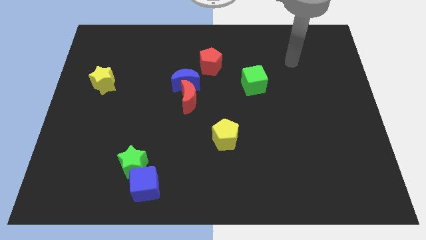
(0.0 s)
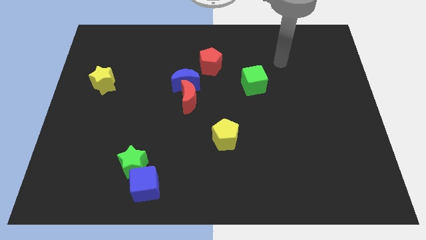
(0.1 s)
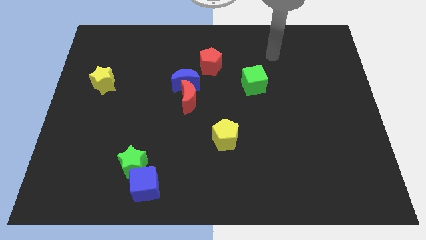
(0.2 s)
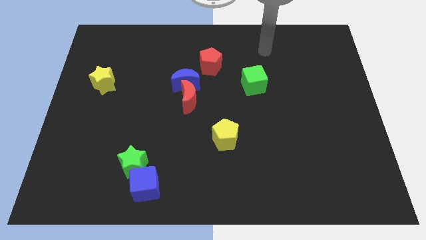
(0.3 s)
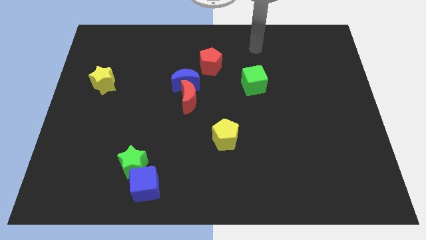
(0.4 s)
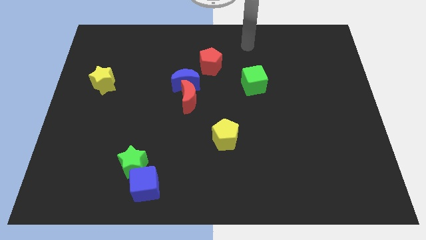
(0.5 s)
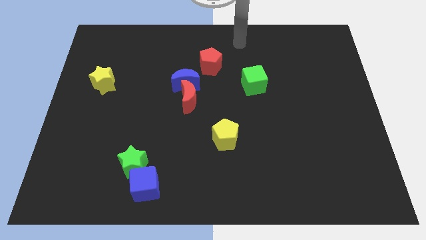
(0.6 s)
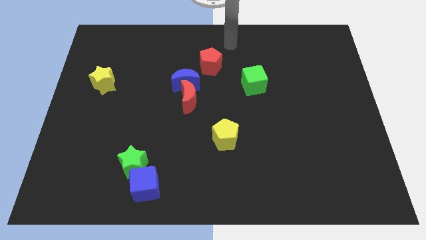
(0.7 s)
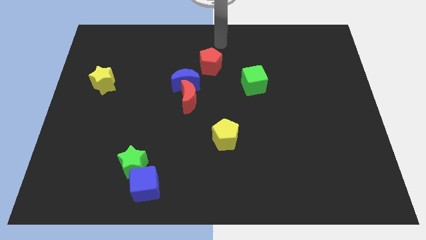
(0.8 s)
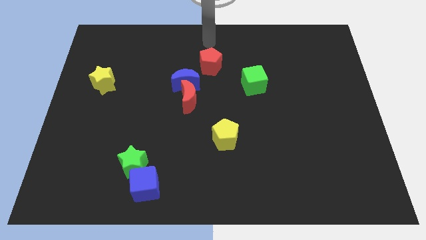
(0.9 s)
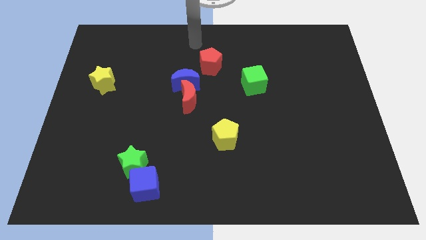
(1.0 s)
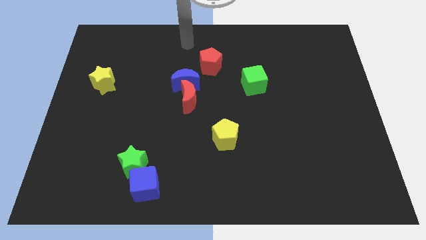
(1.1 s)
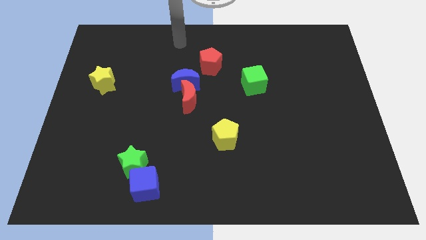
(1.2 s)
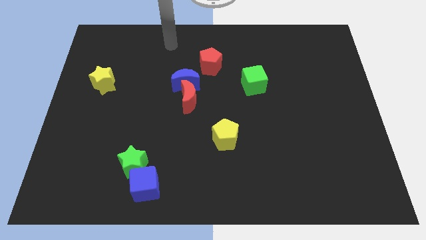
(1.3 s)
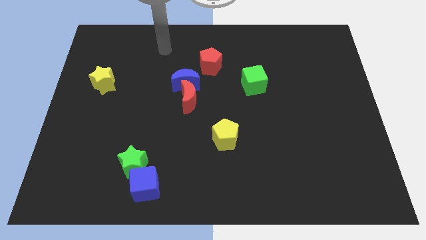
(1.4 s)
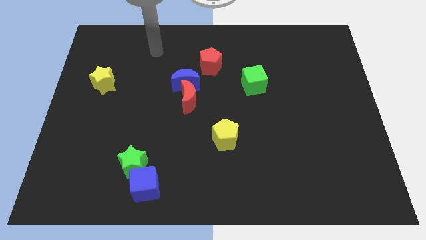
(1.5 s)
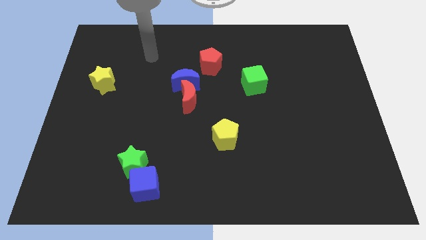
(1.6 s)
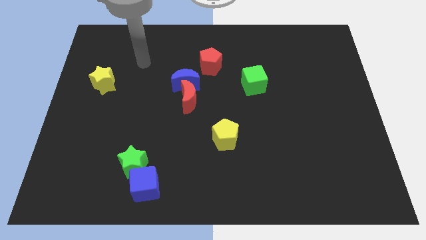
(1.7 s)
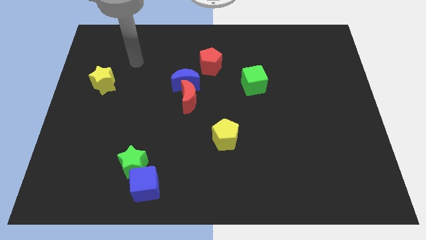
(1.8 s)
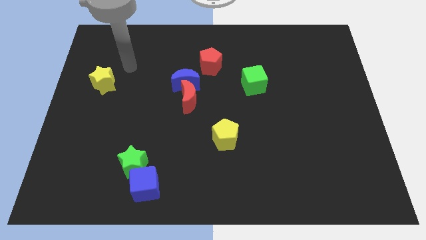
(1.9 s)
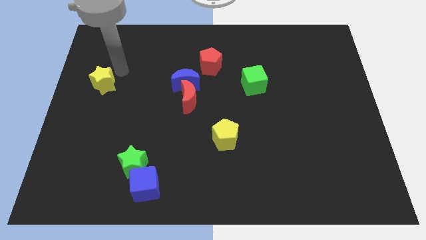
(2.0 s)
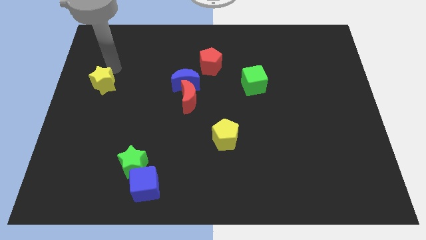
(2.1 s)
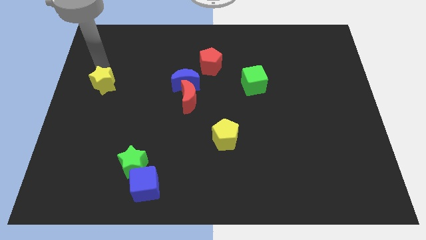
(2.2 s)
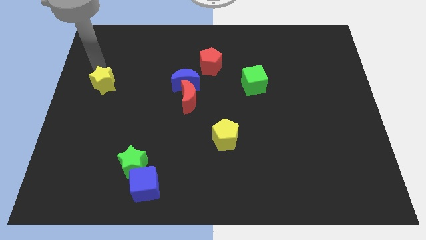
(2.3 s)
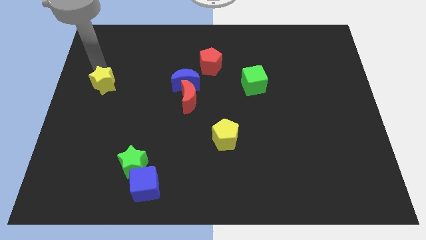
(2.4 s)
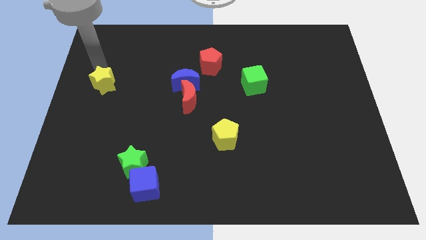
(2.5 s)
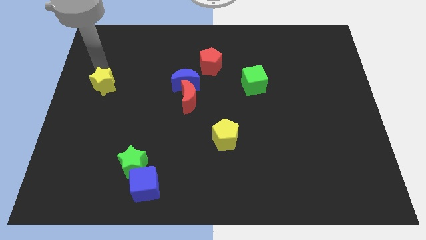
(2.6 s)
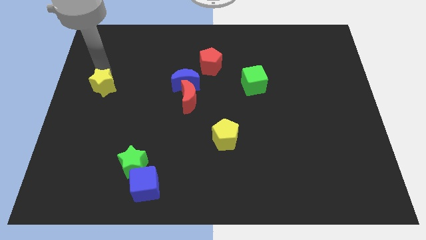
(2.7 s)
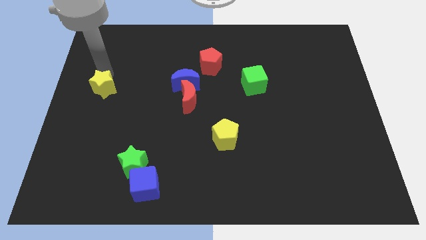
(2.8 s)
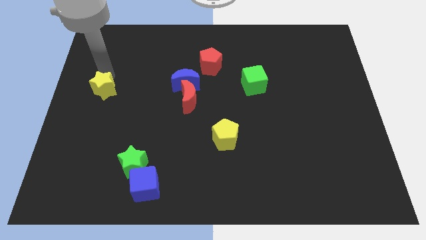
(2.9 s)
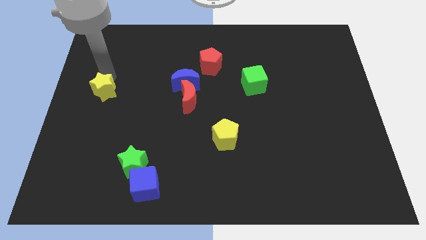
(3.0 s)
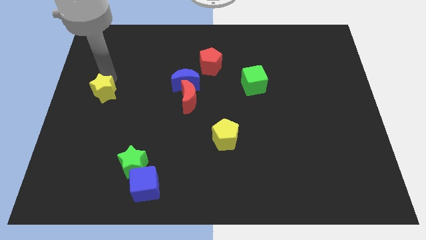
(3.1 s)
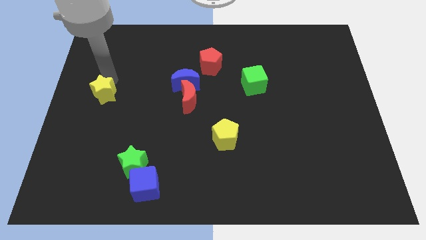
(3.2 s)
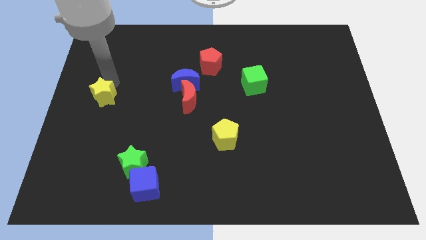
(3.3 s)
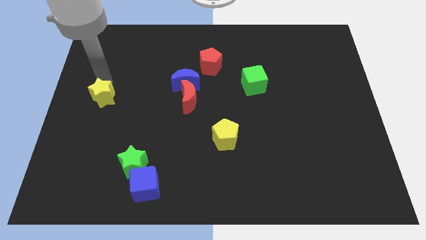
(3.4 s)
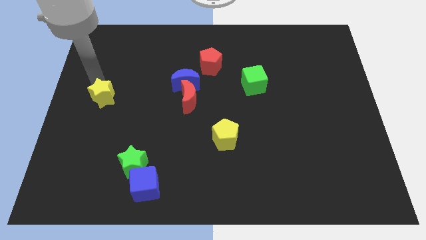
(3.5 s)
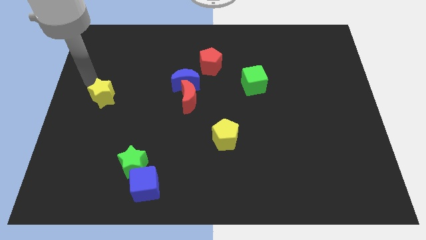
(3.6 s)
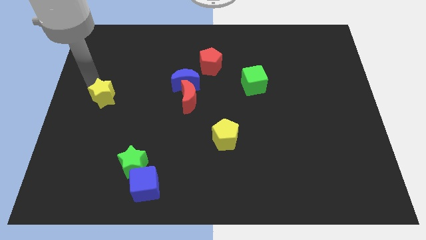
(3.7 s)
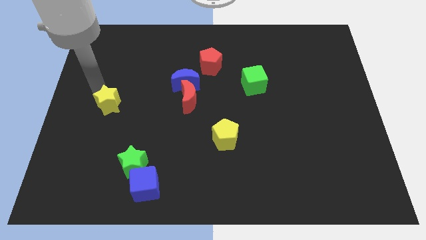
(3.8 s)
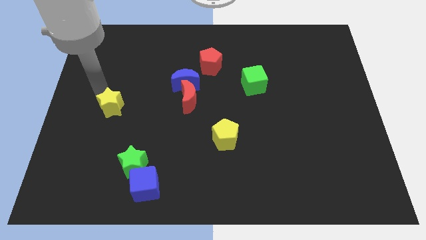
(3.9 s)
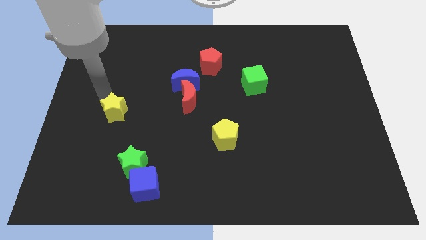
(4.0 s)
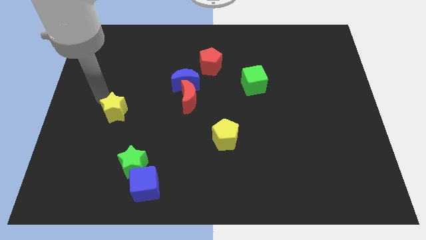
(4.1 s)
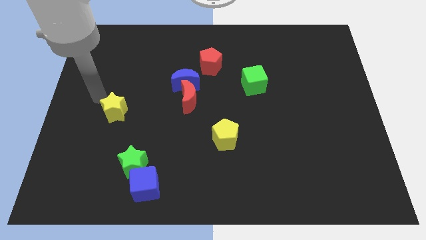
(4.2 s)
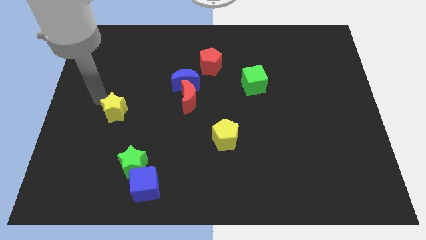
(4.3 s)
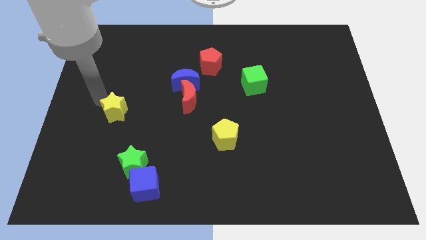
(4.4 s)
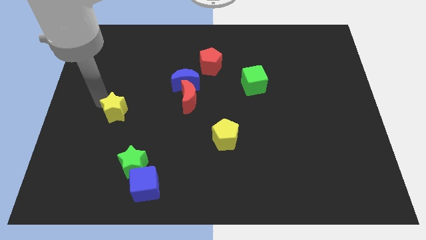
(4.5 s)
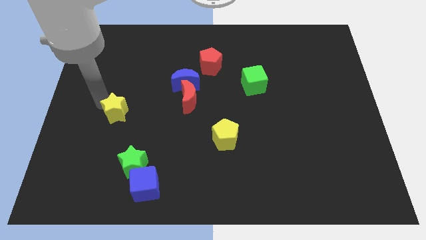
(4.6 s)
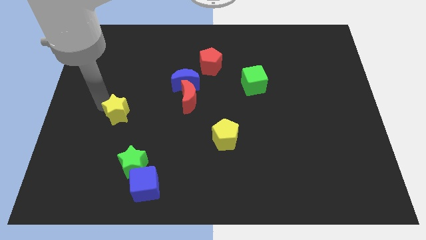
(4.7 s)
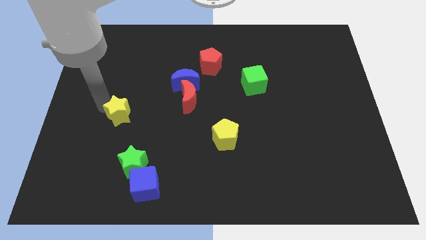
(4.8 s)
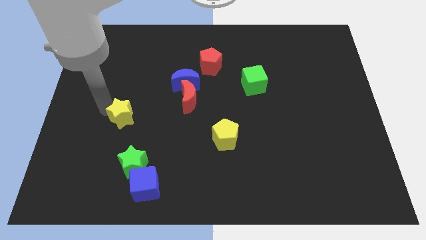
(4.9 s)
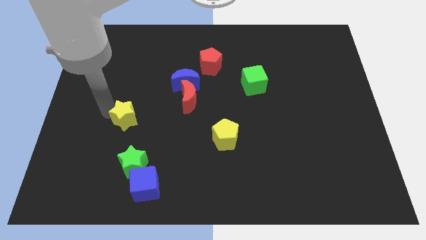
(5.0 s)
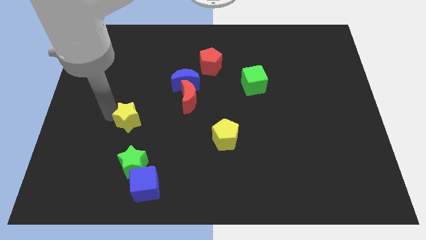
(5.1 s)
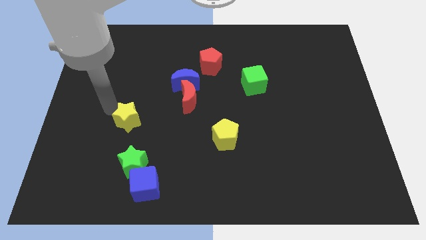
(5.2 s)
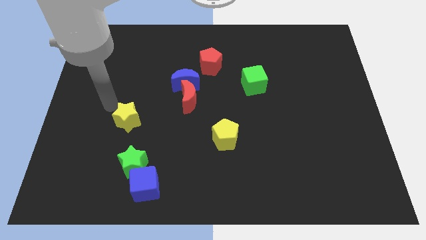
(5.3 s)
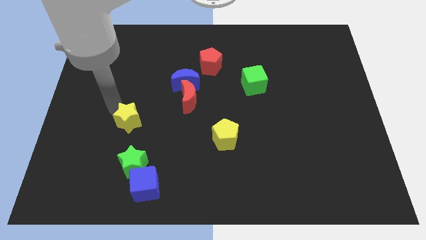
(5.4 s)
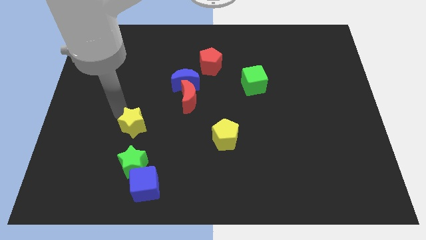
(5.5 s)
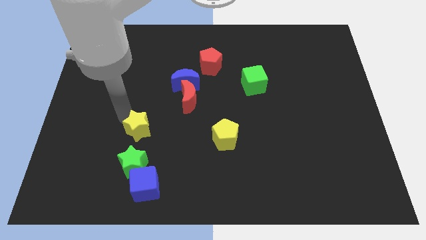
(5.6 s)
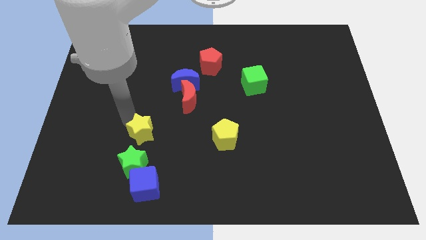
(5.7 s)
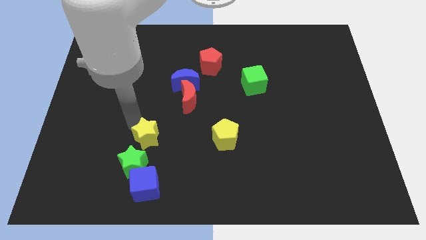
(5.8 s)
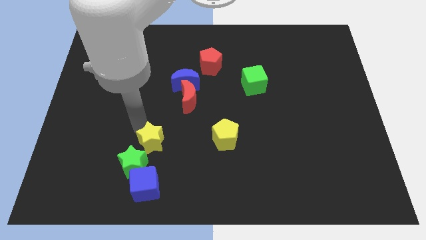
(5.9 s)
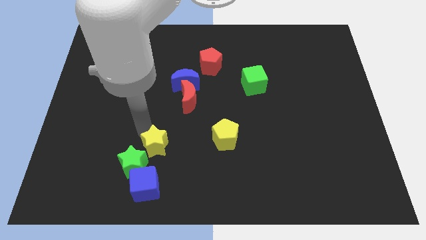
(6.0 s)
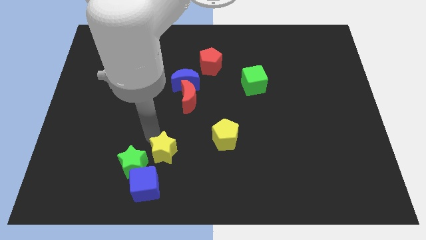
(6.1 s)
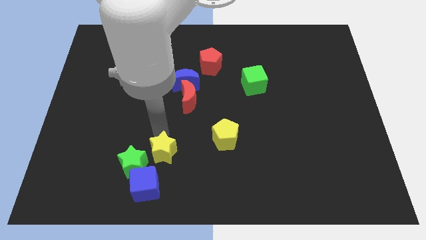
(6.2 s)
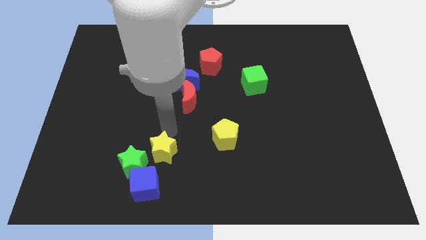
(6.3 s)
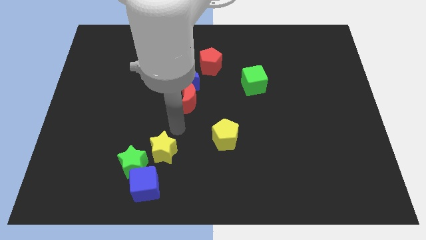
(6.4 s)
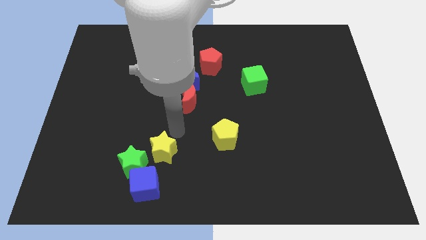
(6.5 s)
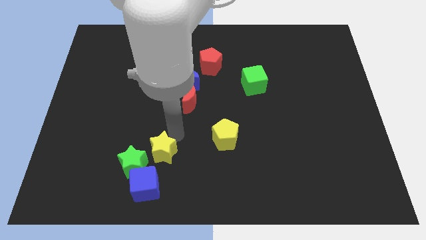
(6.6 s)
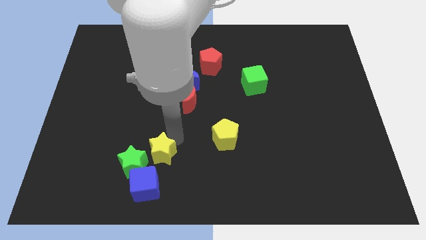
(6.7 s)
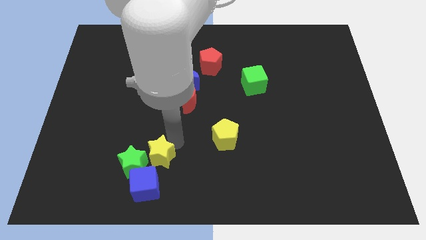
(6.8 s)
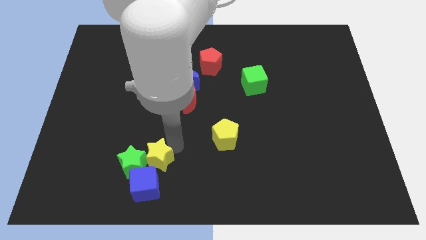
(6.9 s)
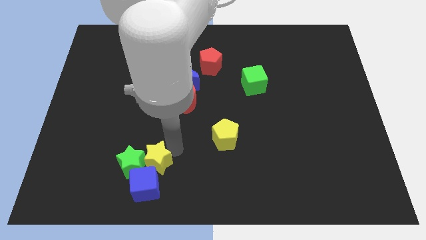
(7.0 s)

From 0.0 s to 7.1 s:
move the yellow star next to the blue cube
